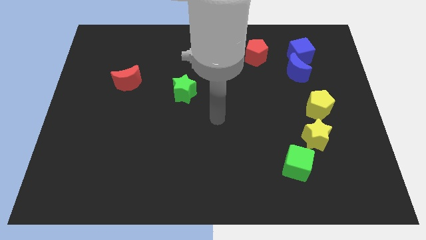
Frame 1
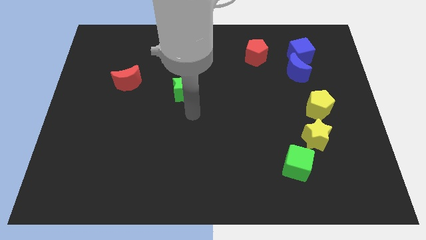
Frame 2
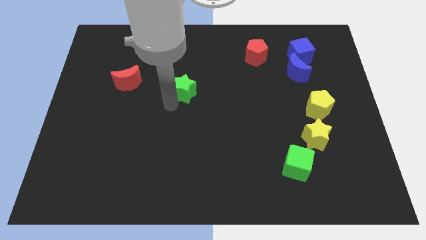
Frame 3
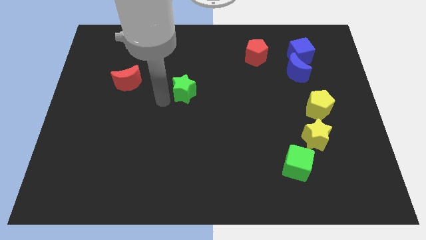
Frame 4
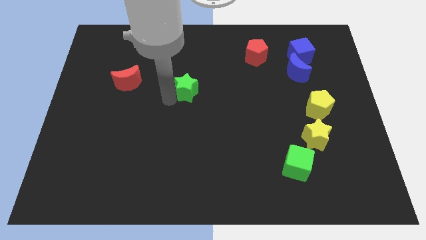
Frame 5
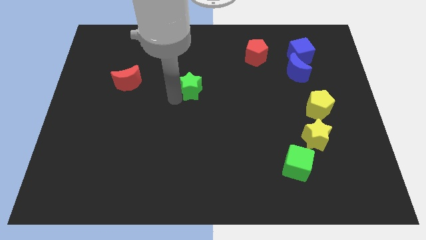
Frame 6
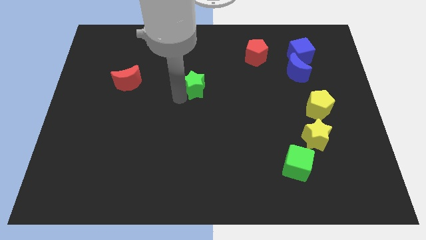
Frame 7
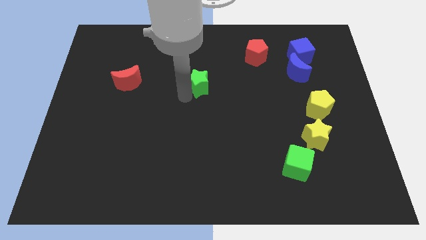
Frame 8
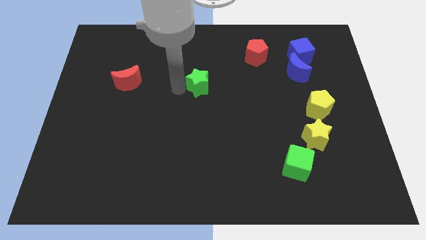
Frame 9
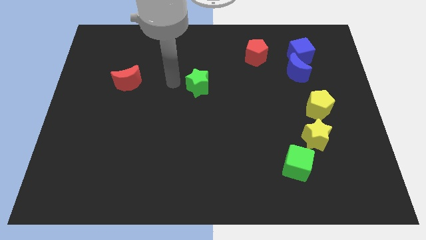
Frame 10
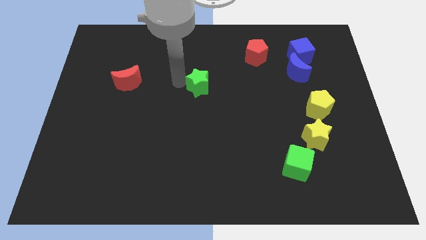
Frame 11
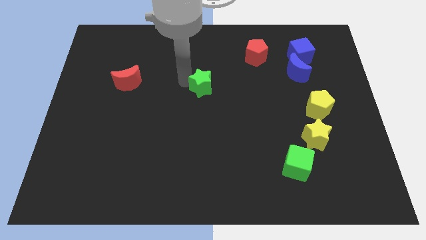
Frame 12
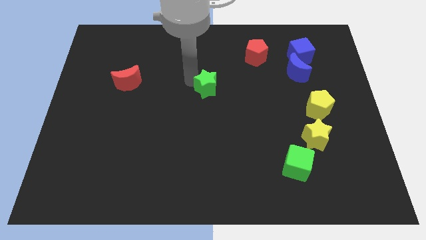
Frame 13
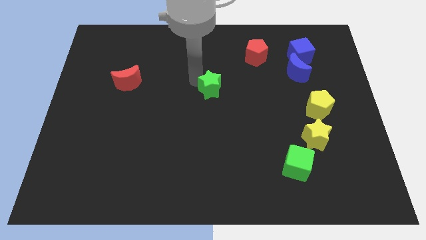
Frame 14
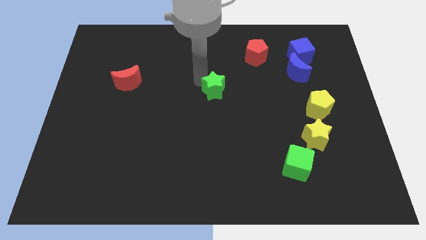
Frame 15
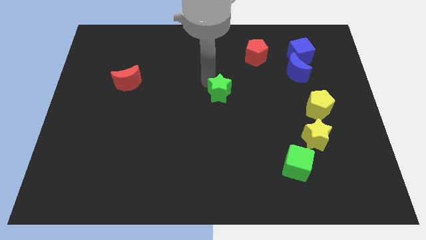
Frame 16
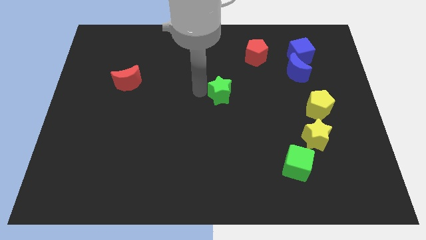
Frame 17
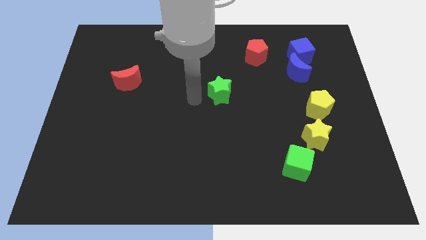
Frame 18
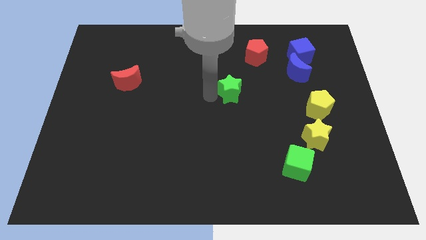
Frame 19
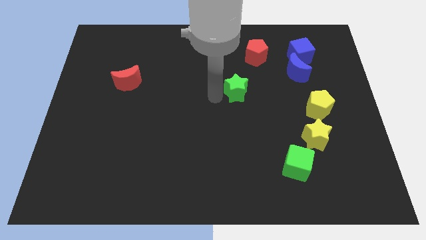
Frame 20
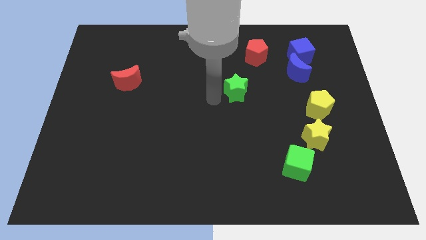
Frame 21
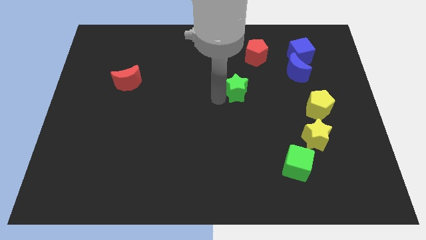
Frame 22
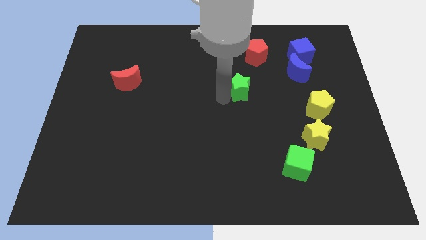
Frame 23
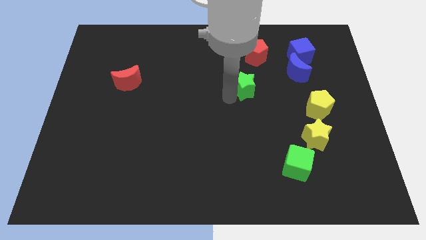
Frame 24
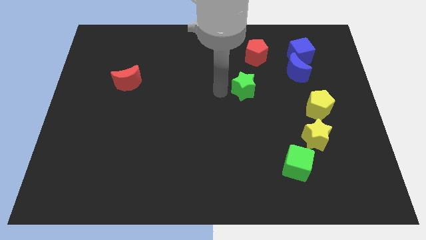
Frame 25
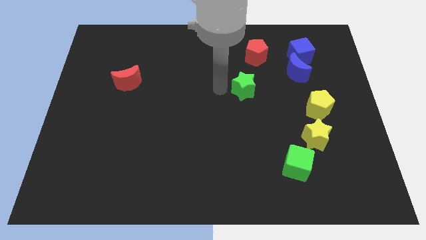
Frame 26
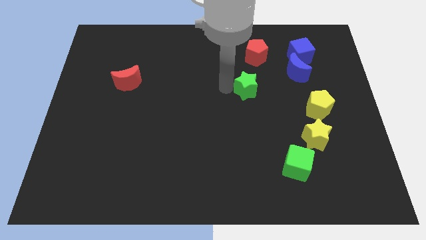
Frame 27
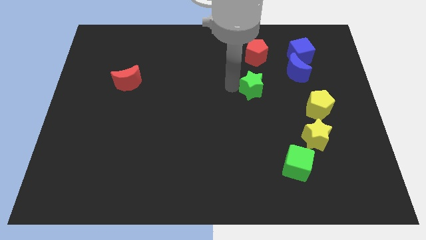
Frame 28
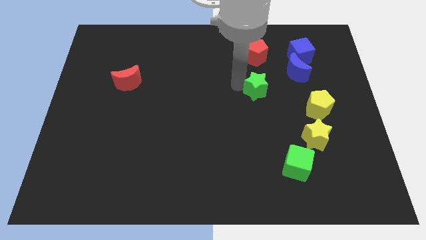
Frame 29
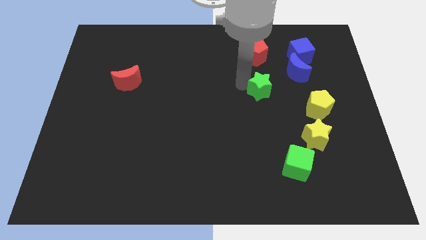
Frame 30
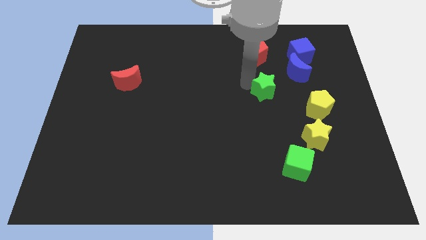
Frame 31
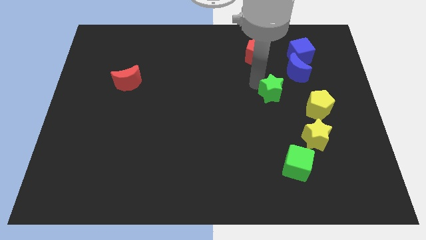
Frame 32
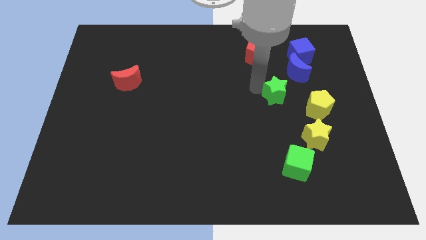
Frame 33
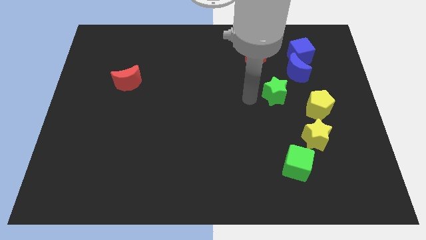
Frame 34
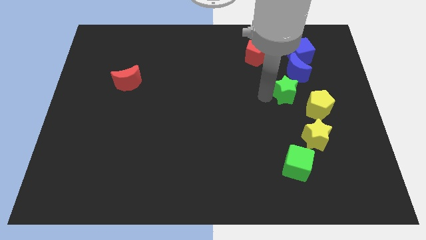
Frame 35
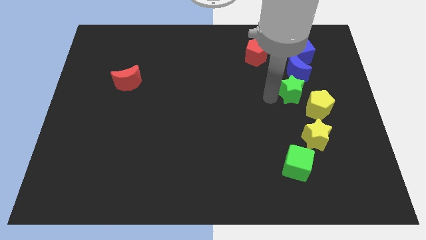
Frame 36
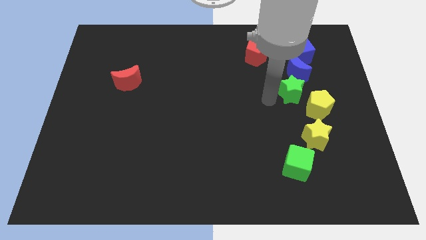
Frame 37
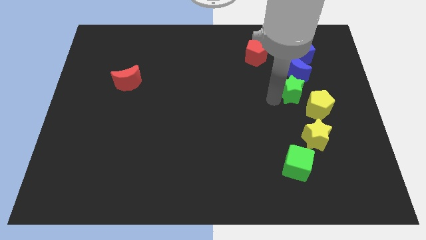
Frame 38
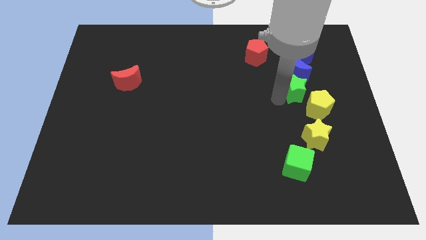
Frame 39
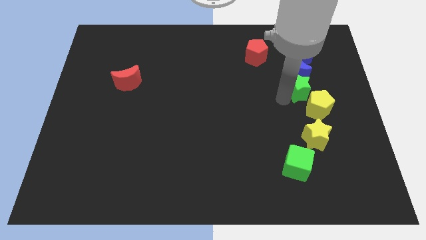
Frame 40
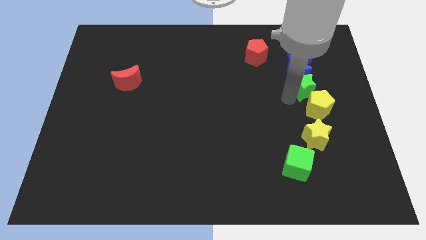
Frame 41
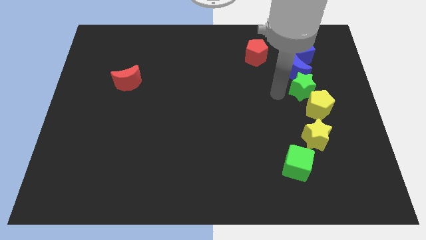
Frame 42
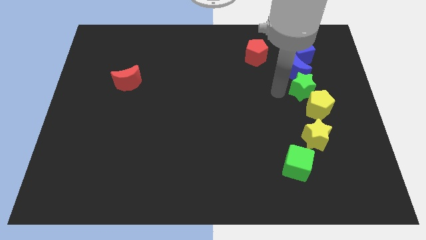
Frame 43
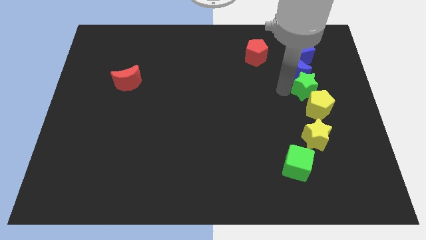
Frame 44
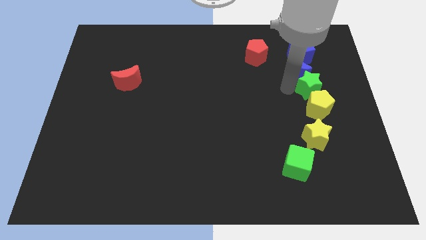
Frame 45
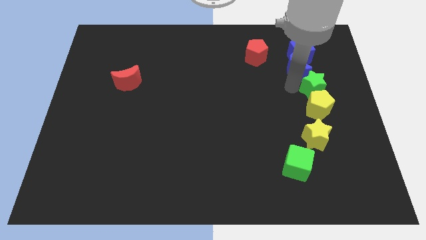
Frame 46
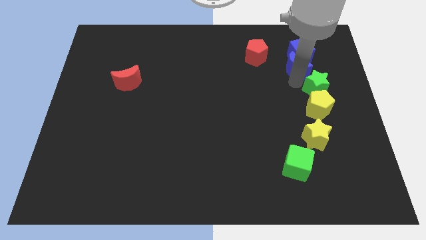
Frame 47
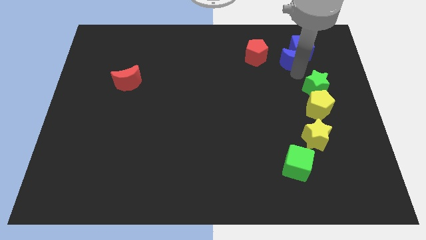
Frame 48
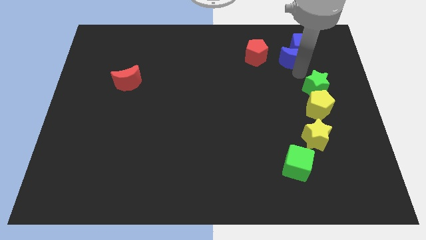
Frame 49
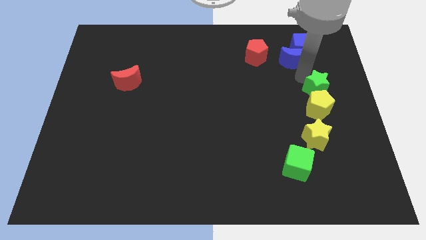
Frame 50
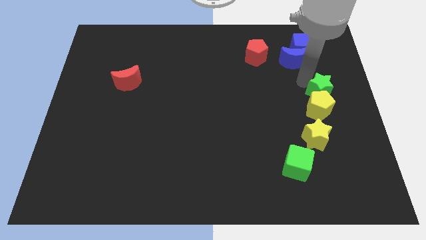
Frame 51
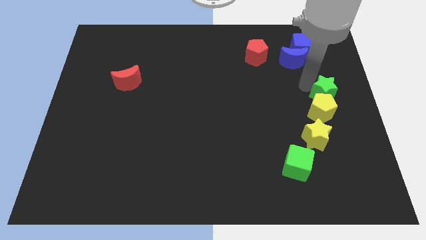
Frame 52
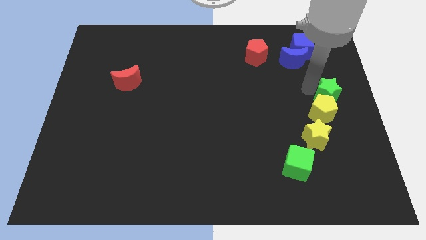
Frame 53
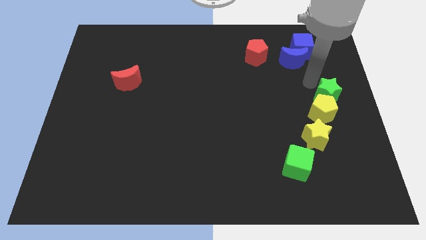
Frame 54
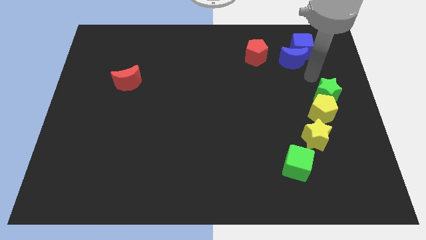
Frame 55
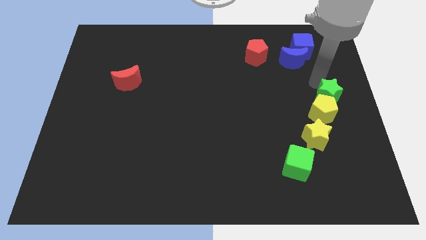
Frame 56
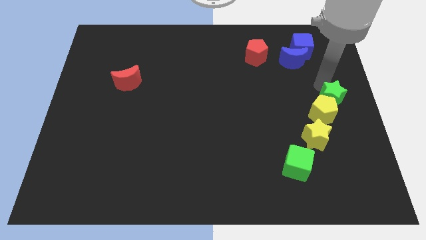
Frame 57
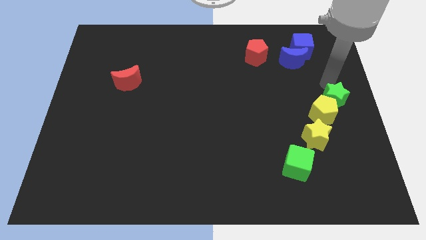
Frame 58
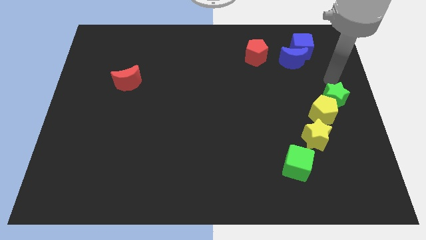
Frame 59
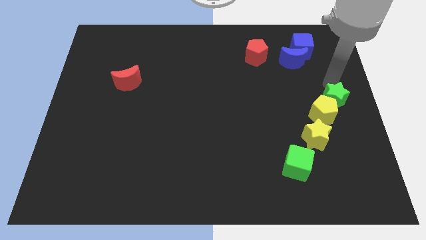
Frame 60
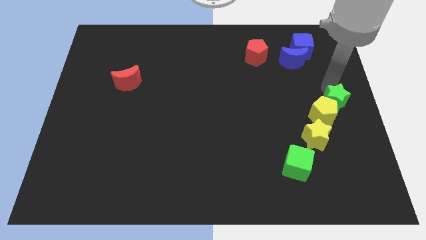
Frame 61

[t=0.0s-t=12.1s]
move the green star to the top right side of the yellow star

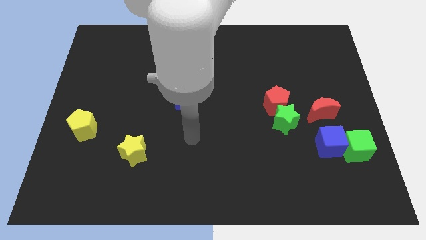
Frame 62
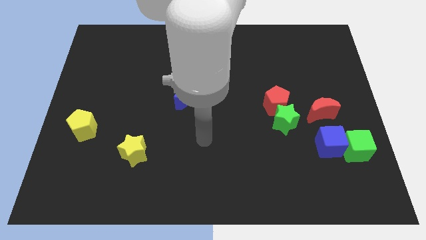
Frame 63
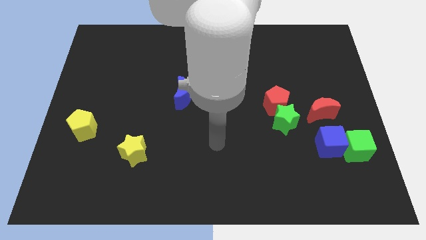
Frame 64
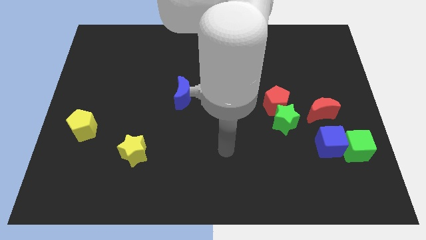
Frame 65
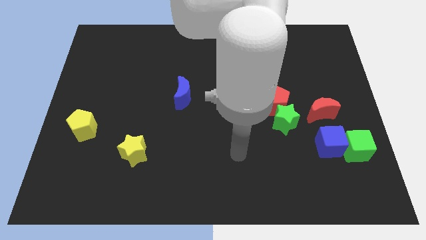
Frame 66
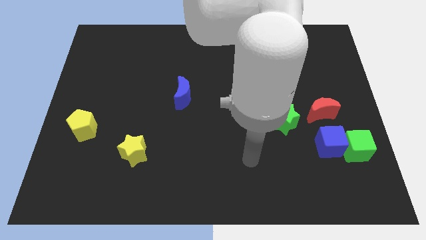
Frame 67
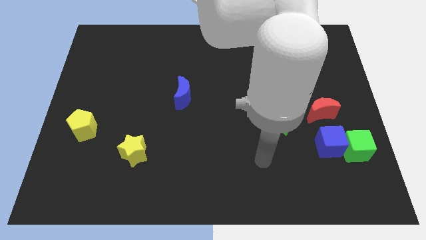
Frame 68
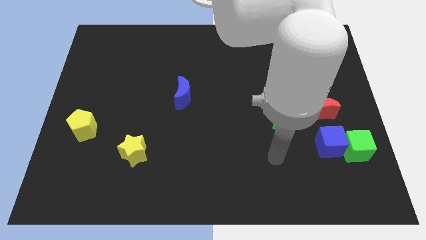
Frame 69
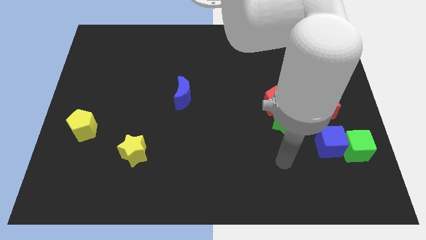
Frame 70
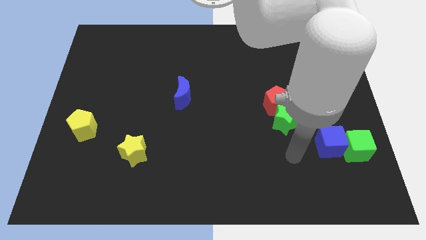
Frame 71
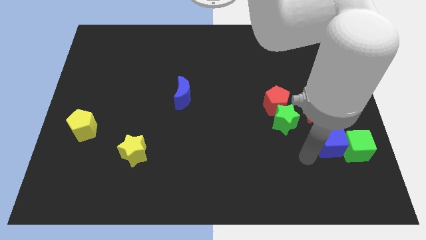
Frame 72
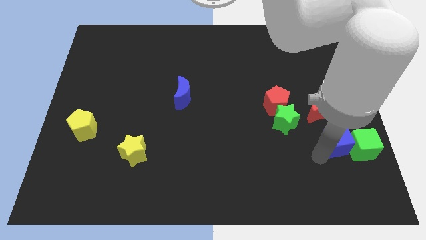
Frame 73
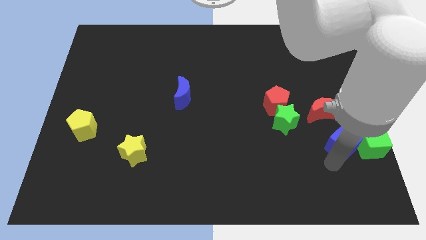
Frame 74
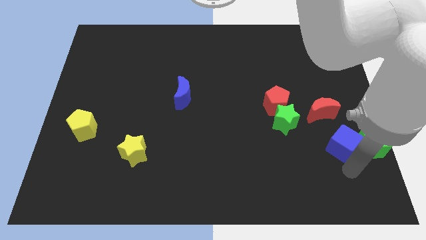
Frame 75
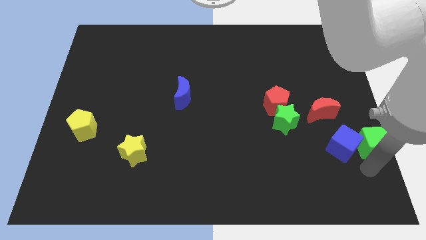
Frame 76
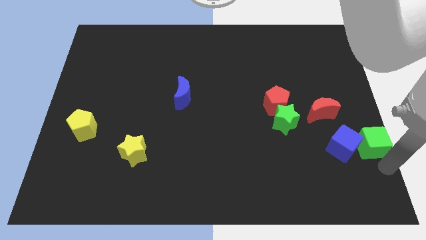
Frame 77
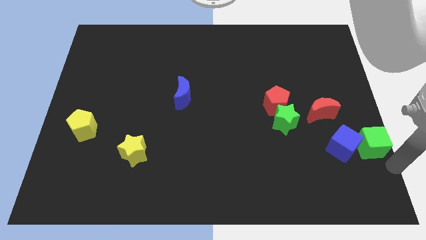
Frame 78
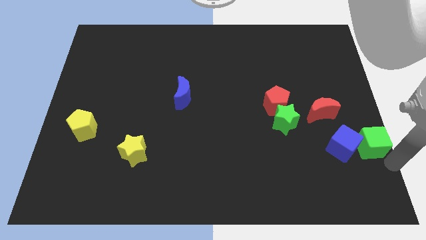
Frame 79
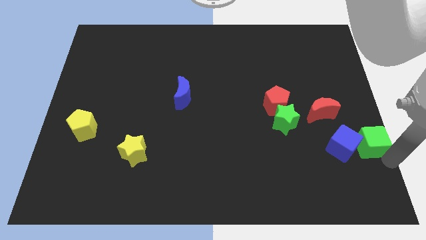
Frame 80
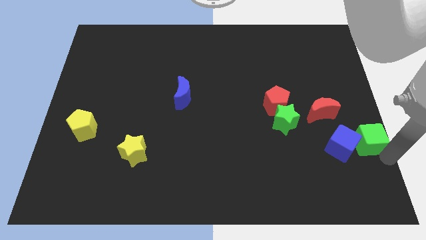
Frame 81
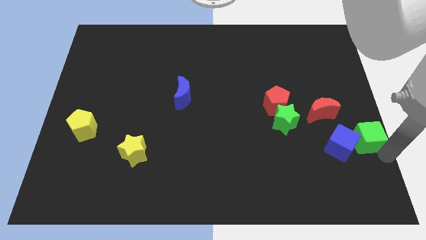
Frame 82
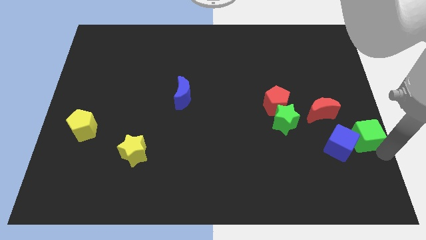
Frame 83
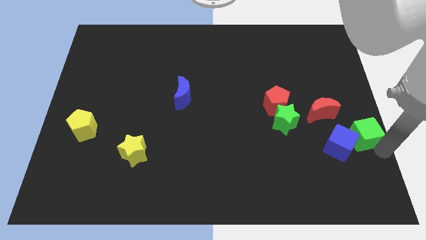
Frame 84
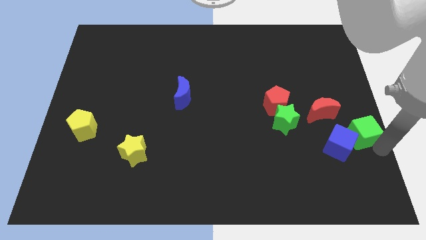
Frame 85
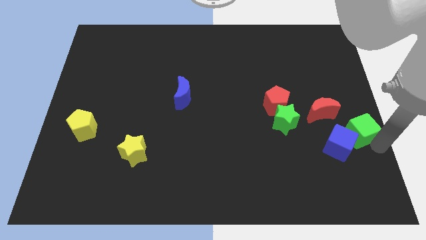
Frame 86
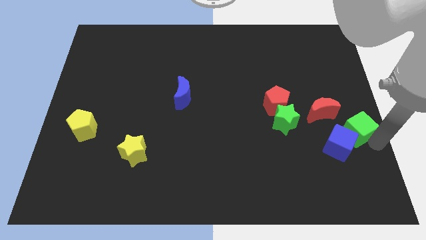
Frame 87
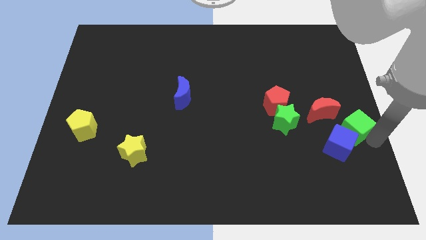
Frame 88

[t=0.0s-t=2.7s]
slide the green cube to the top of the blue cube
